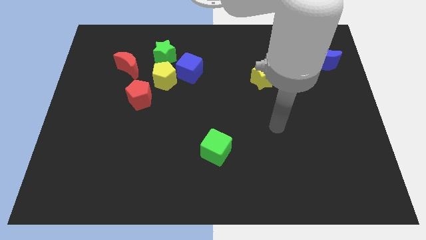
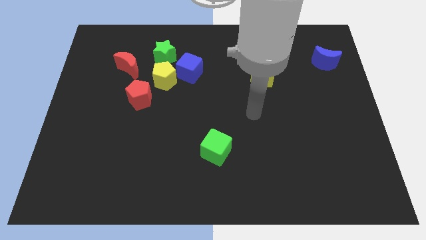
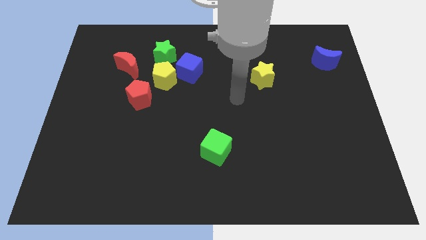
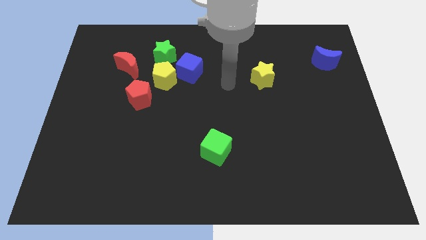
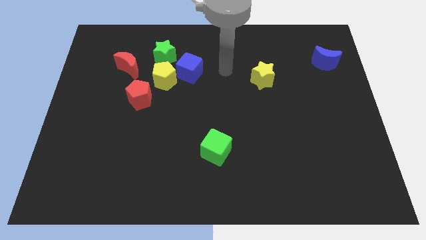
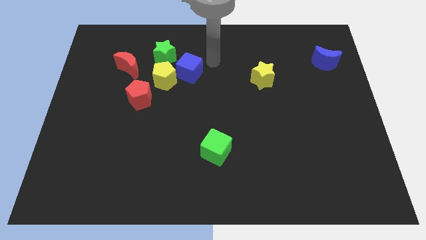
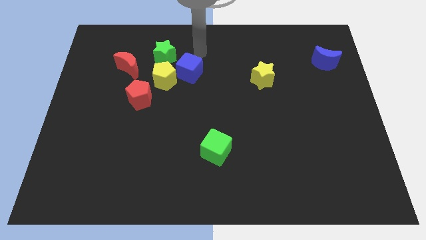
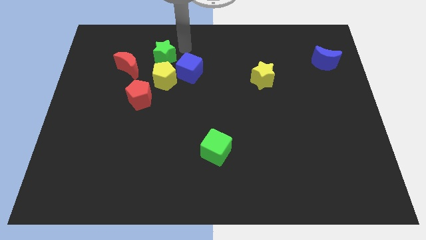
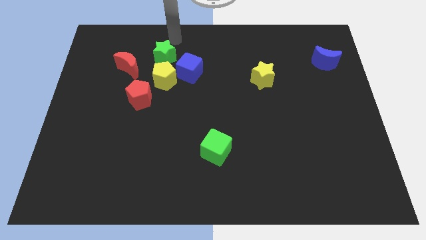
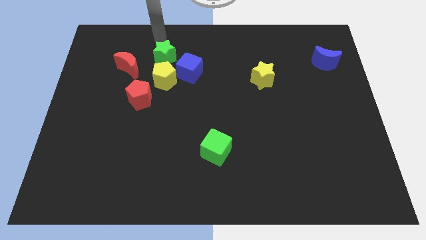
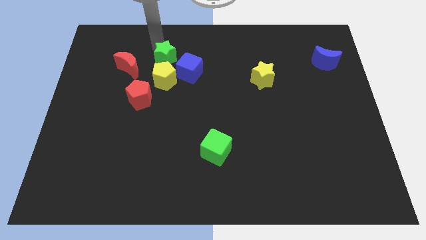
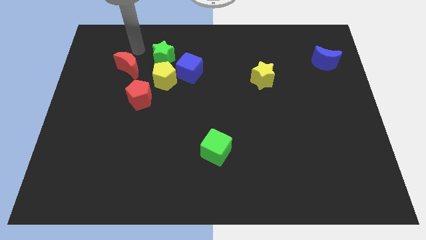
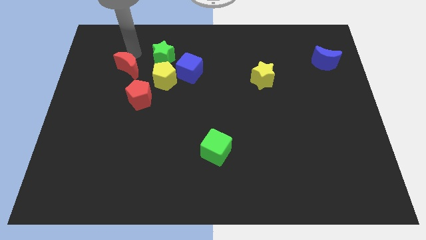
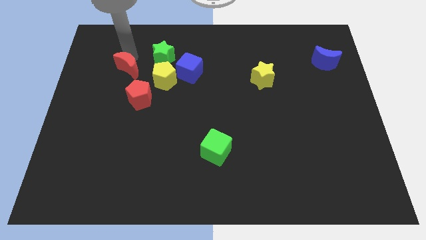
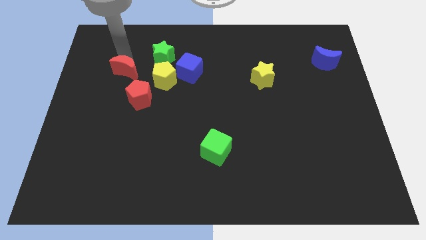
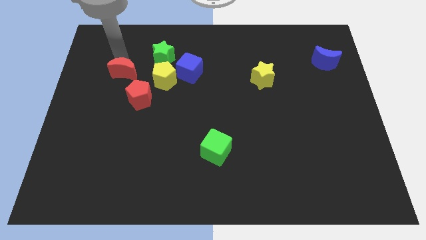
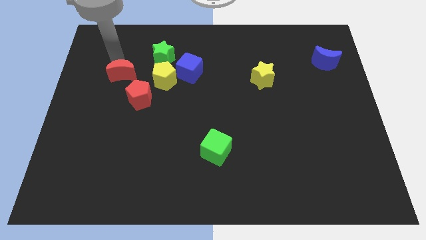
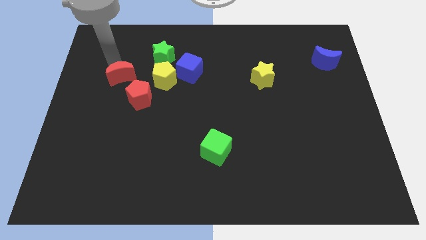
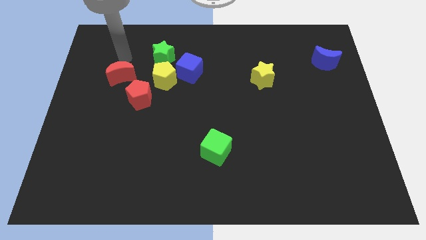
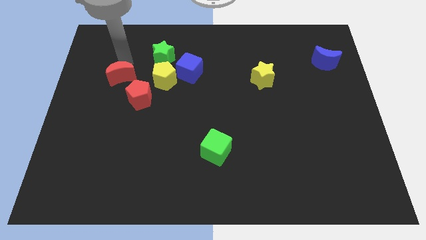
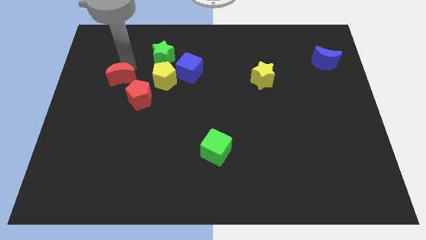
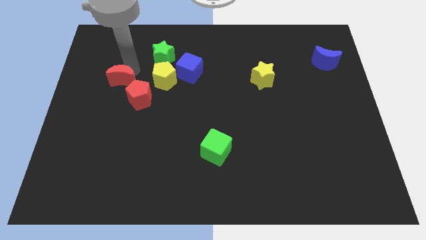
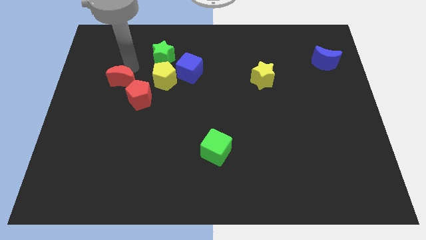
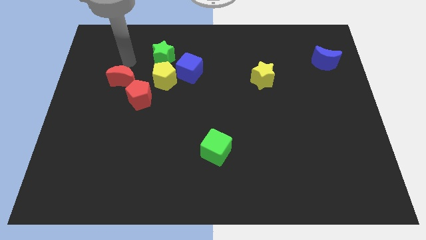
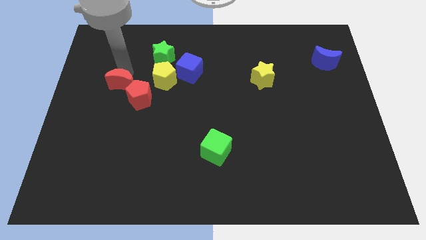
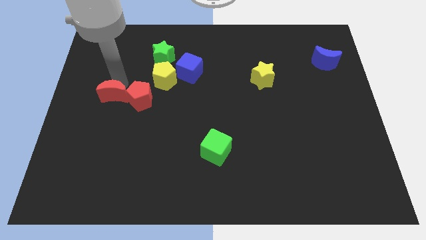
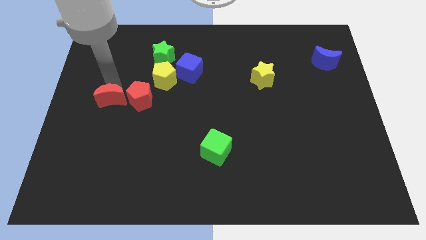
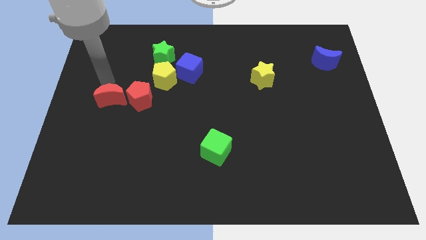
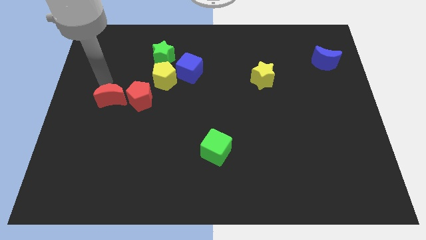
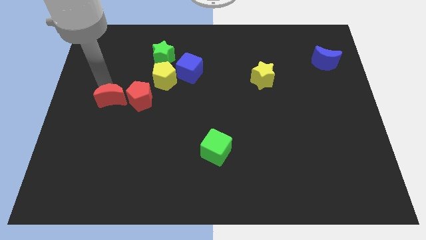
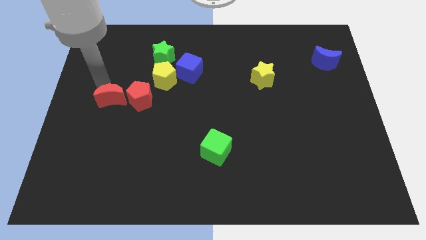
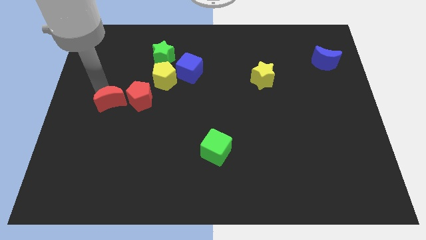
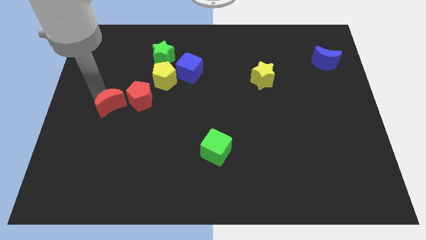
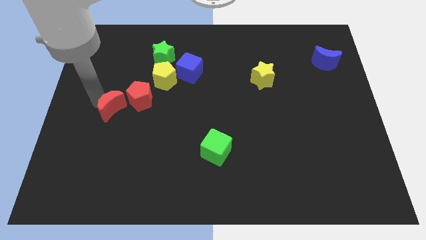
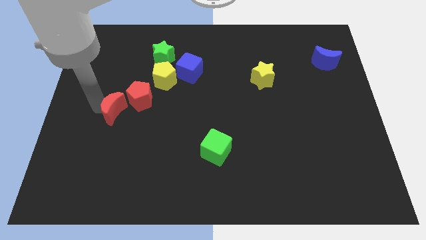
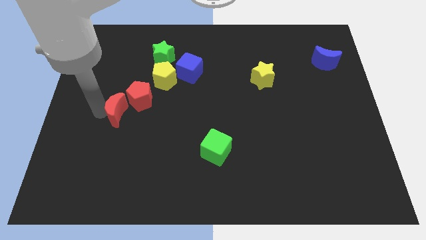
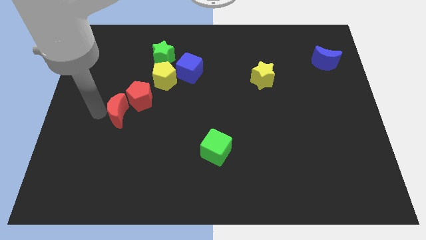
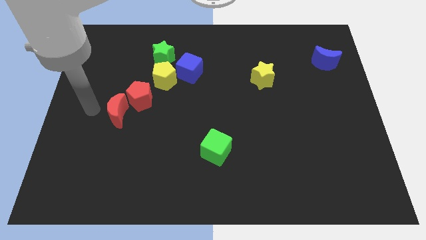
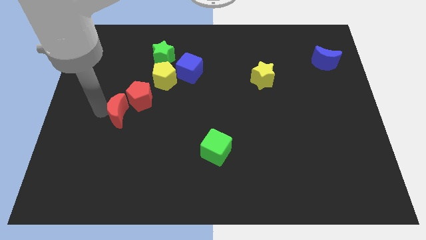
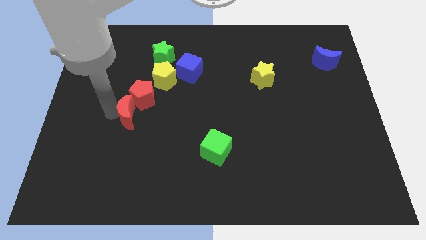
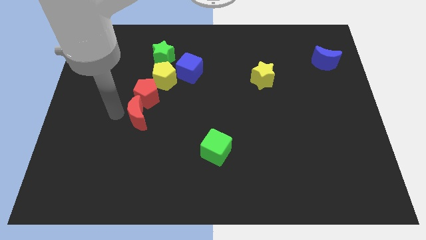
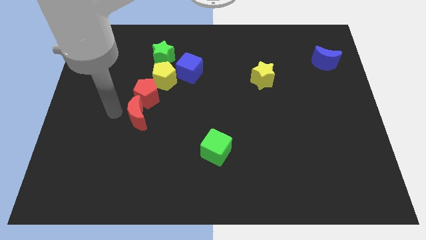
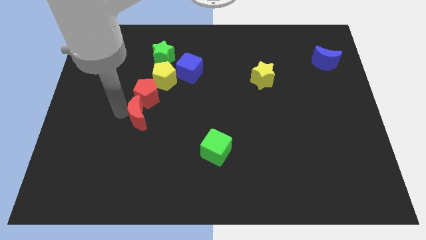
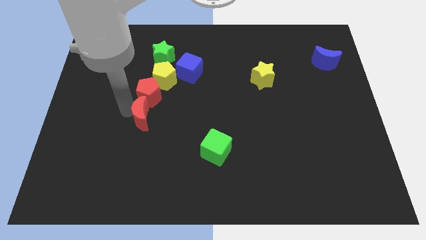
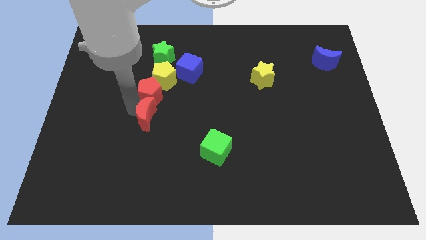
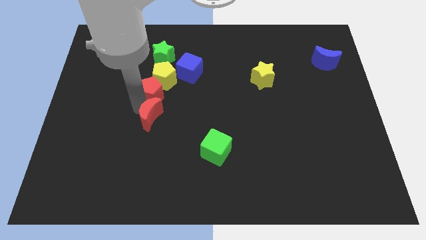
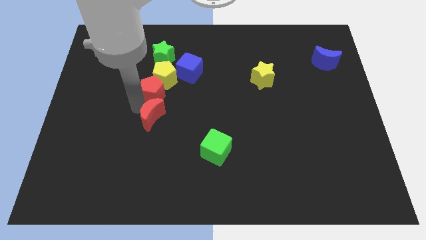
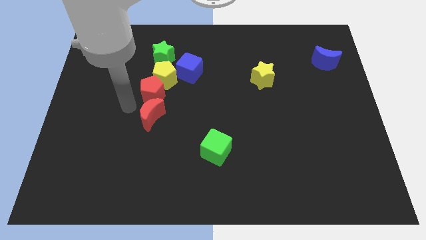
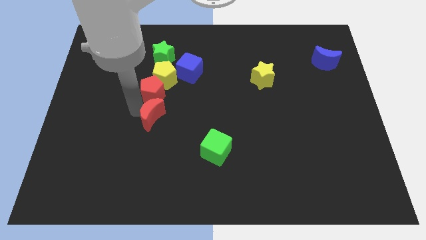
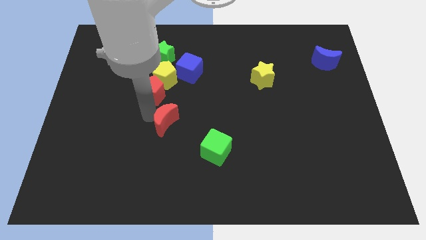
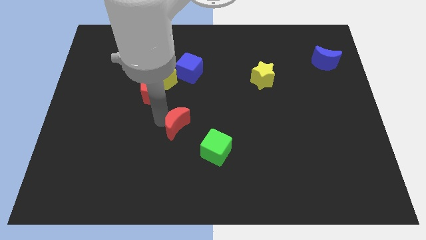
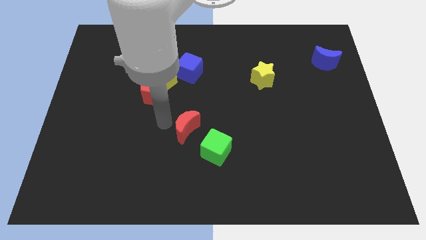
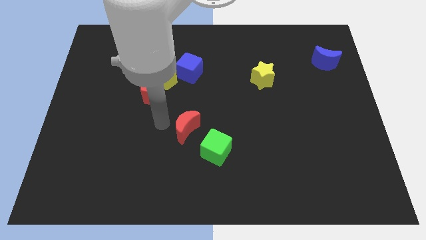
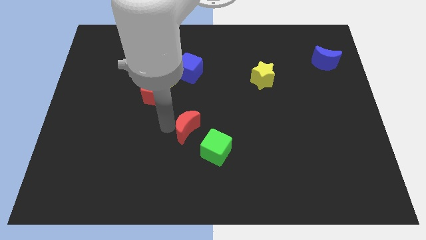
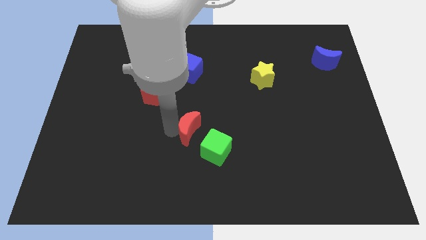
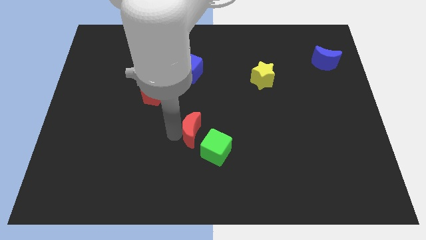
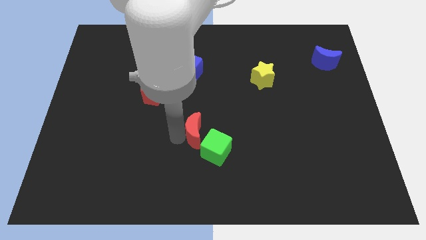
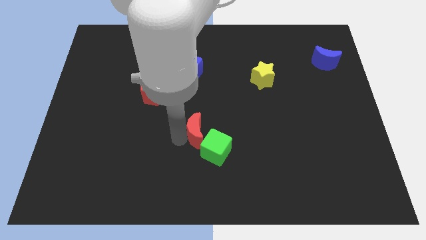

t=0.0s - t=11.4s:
put the red moon to the green cube
